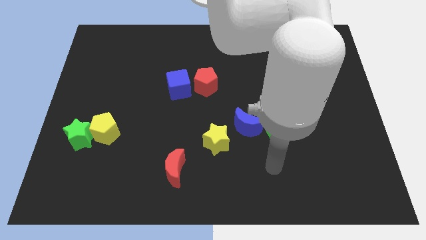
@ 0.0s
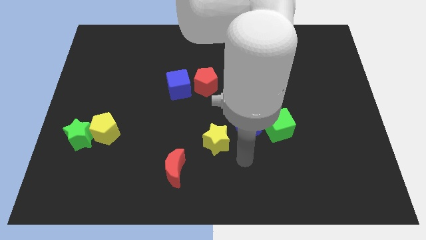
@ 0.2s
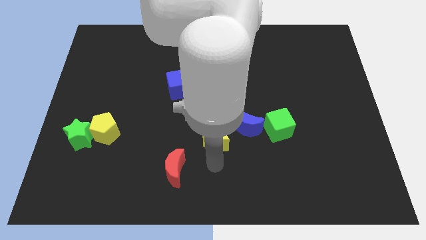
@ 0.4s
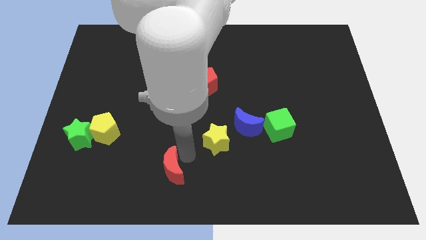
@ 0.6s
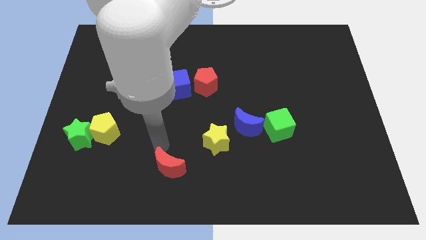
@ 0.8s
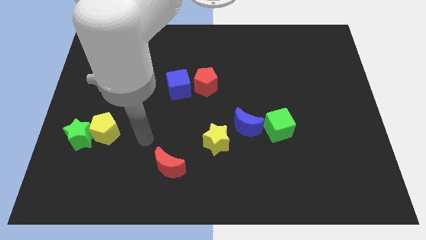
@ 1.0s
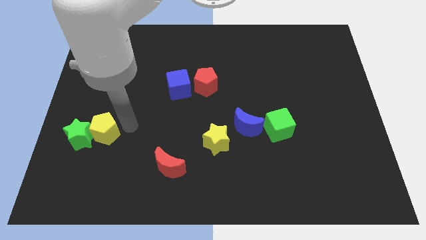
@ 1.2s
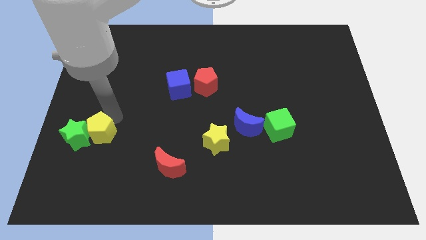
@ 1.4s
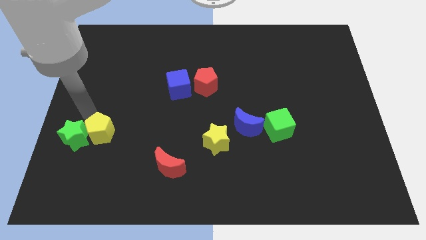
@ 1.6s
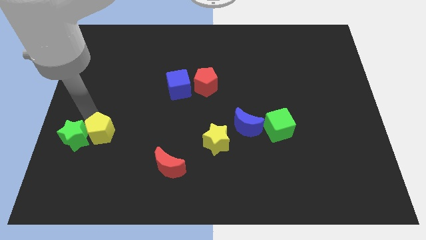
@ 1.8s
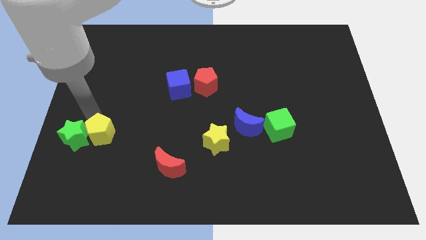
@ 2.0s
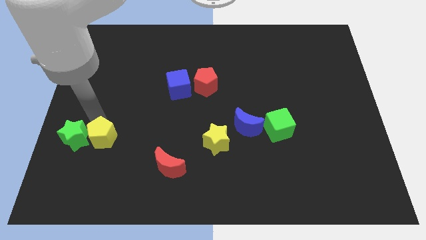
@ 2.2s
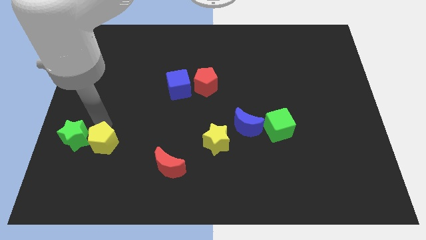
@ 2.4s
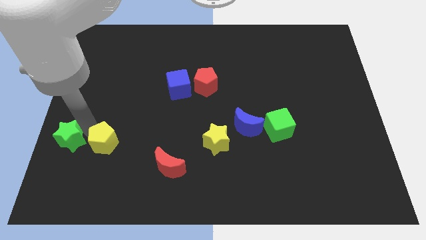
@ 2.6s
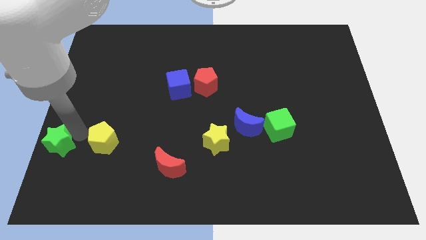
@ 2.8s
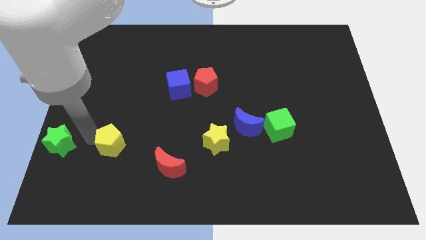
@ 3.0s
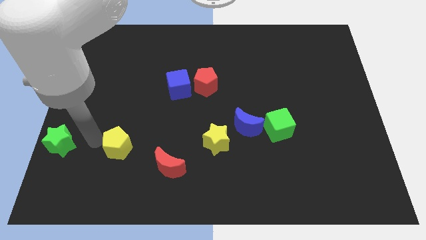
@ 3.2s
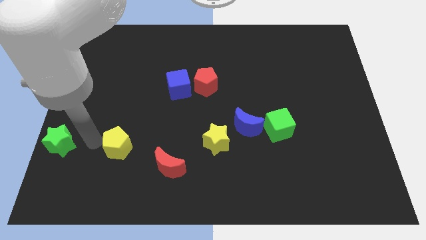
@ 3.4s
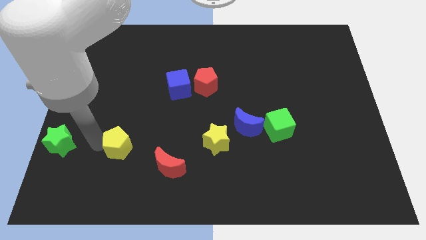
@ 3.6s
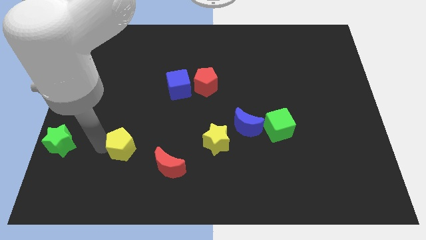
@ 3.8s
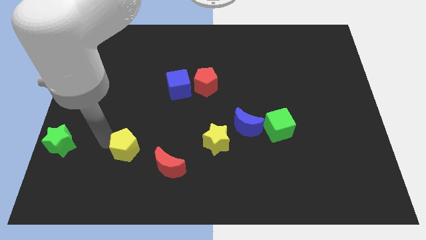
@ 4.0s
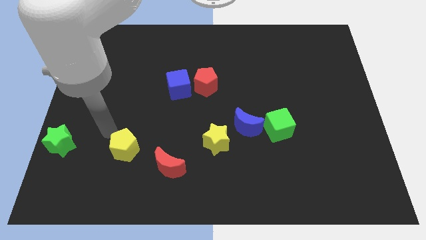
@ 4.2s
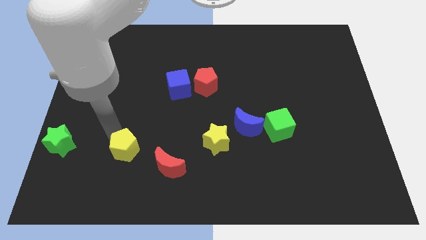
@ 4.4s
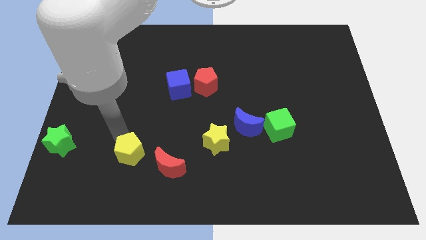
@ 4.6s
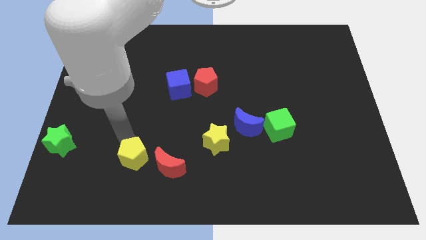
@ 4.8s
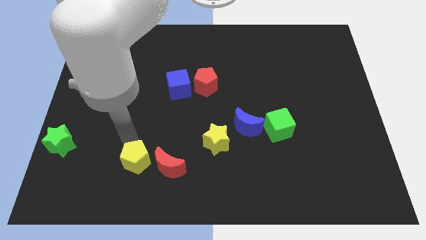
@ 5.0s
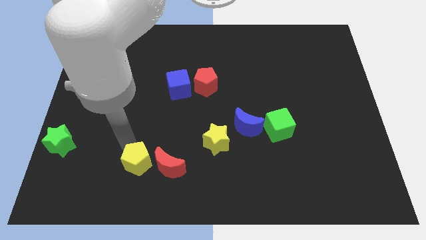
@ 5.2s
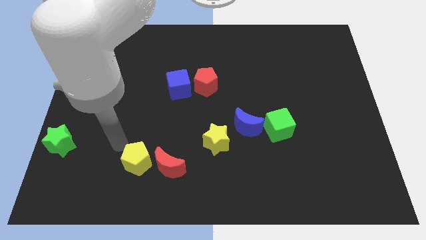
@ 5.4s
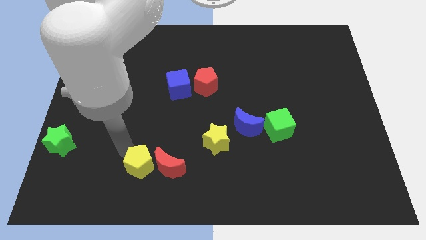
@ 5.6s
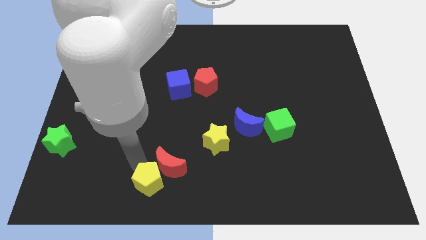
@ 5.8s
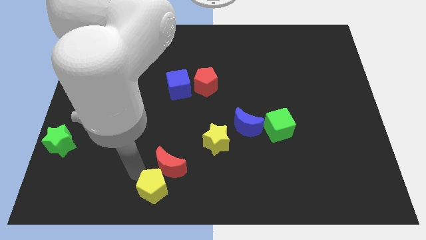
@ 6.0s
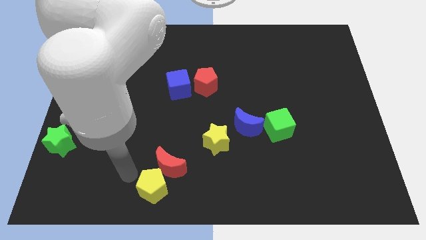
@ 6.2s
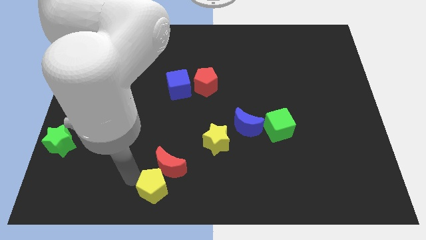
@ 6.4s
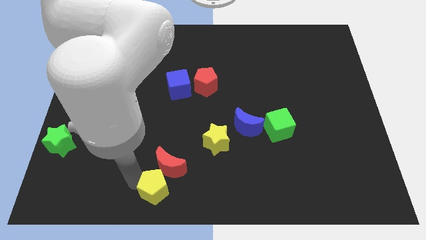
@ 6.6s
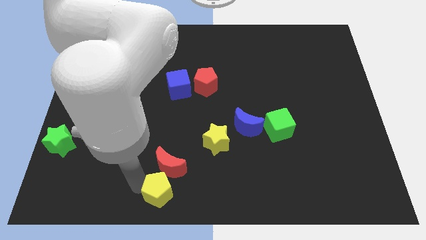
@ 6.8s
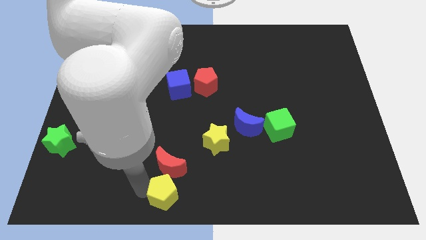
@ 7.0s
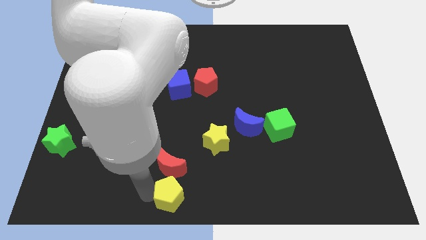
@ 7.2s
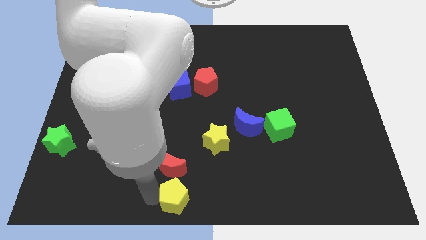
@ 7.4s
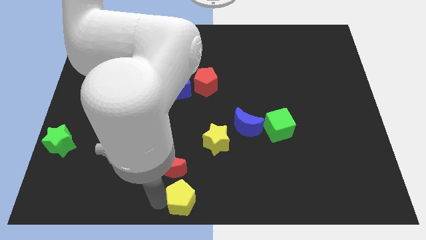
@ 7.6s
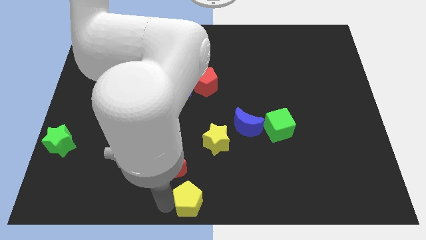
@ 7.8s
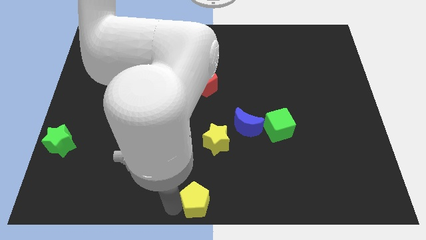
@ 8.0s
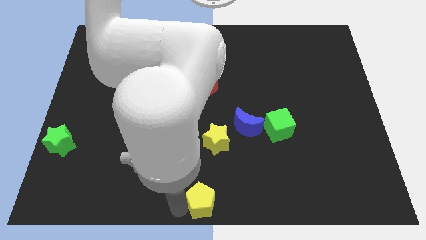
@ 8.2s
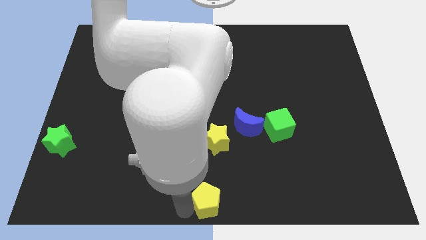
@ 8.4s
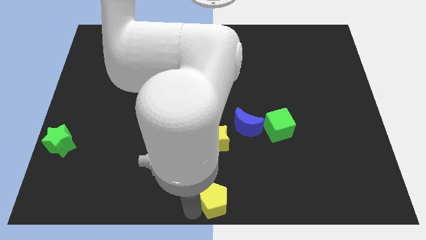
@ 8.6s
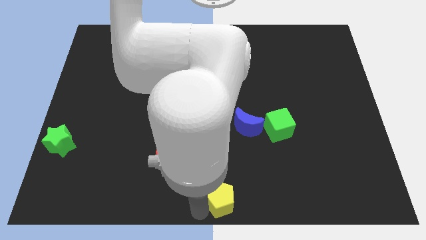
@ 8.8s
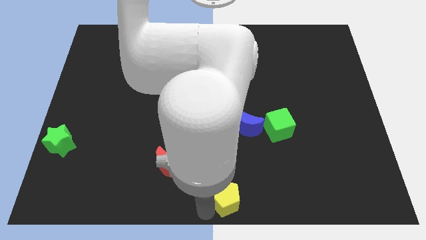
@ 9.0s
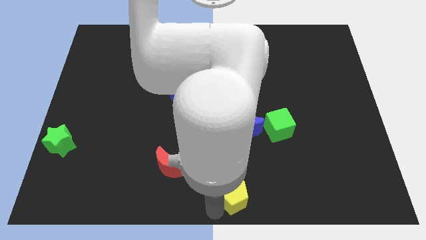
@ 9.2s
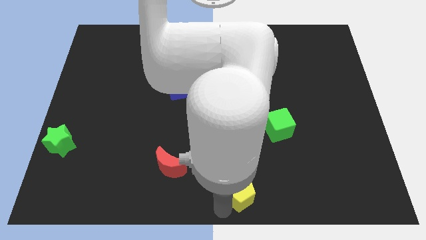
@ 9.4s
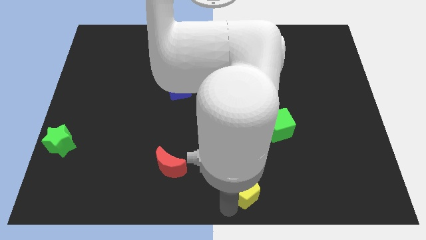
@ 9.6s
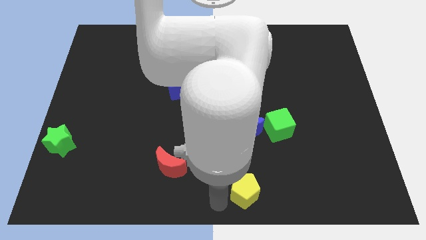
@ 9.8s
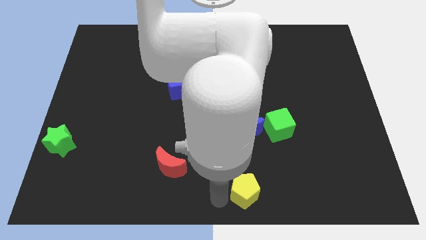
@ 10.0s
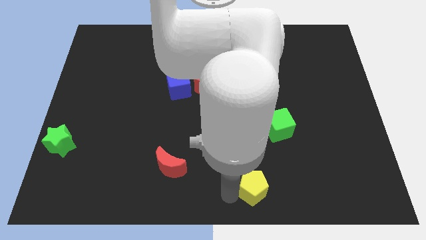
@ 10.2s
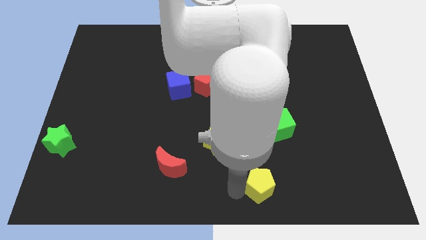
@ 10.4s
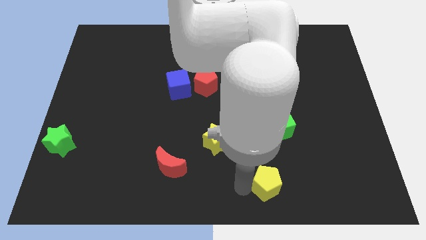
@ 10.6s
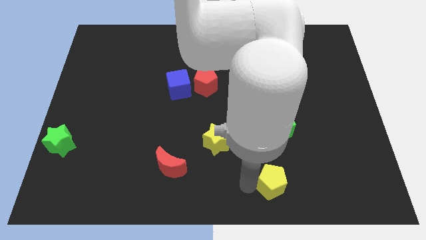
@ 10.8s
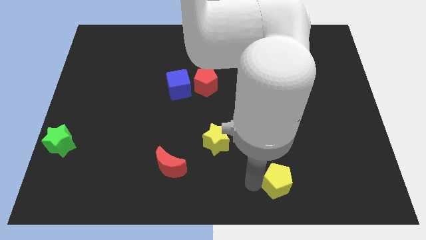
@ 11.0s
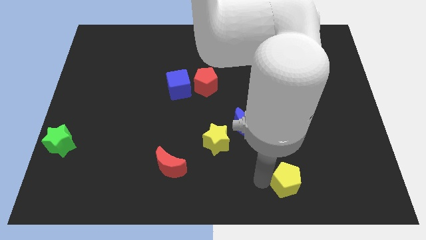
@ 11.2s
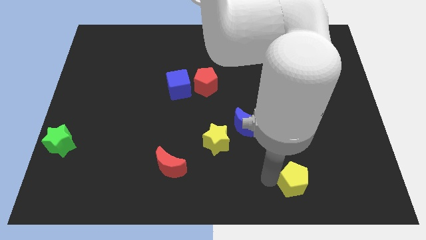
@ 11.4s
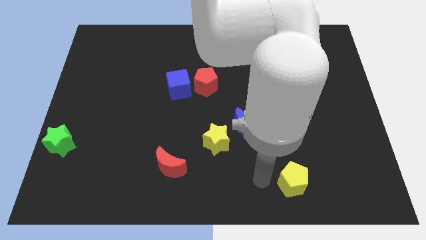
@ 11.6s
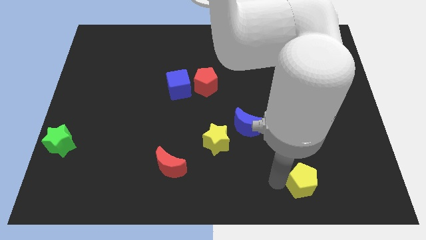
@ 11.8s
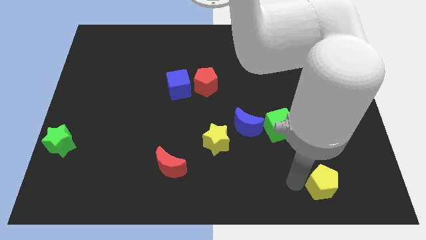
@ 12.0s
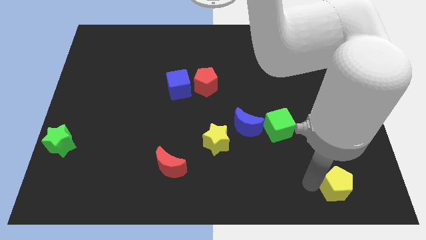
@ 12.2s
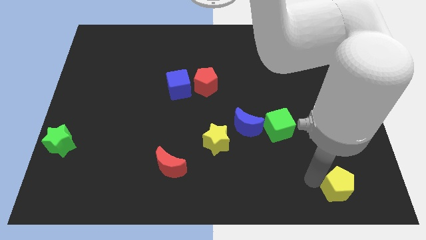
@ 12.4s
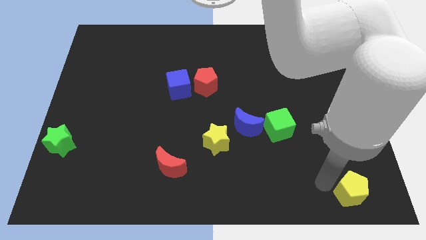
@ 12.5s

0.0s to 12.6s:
move the yellow pentagon to the bottom right
